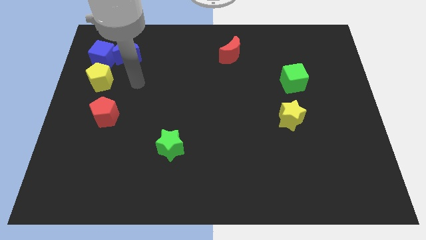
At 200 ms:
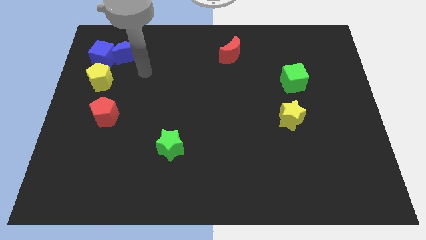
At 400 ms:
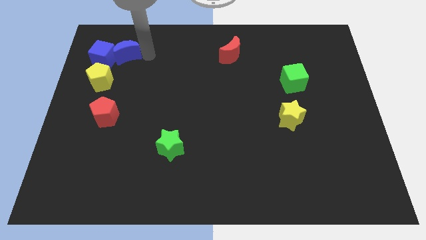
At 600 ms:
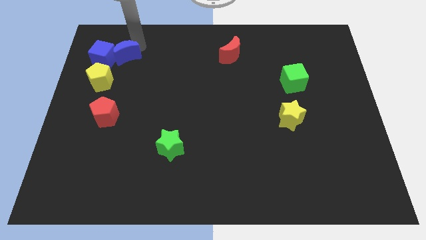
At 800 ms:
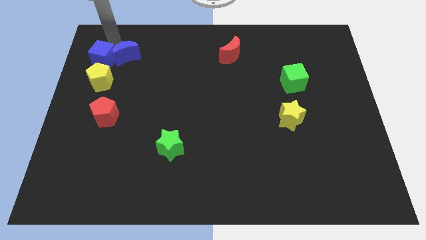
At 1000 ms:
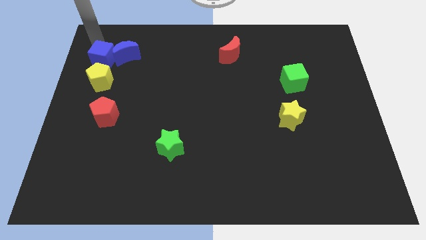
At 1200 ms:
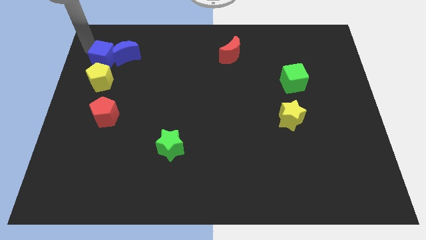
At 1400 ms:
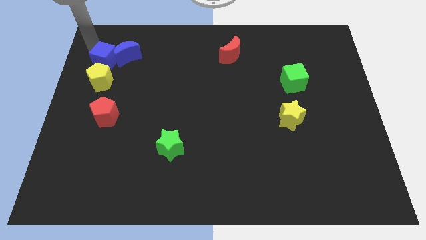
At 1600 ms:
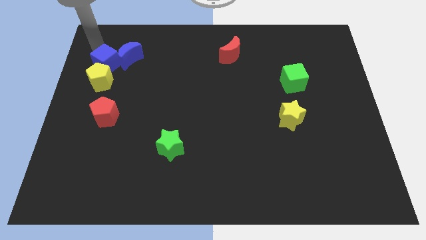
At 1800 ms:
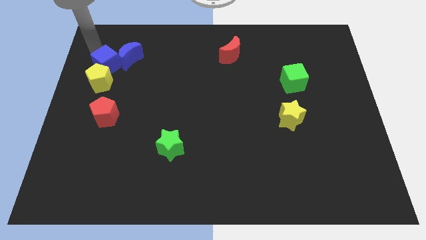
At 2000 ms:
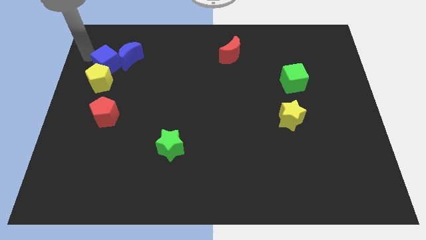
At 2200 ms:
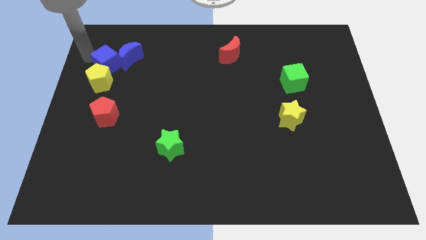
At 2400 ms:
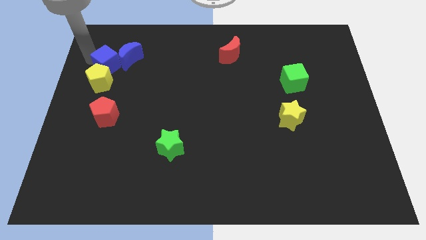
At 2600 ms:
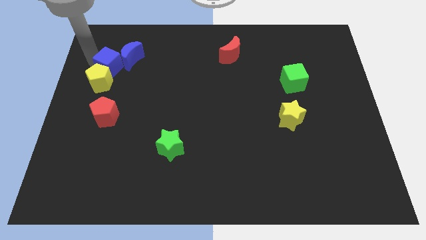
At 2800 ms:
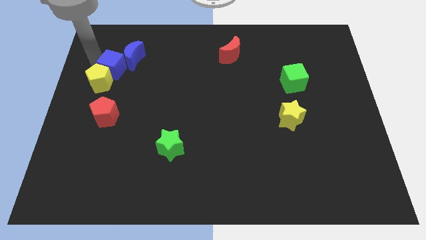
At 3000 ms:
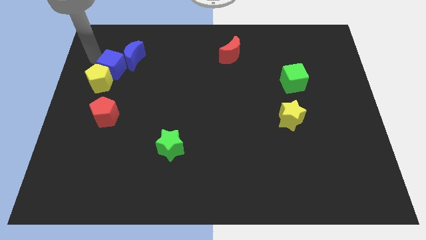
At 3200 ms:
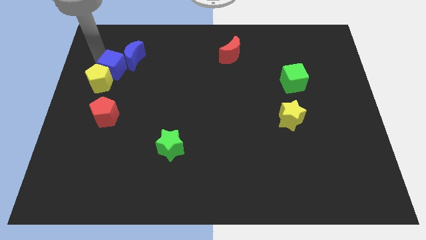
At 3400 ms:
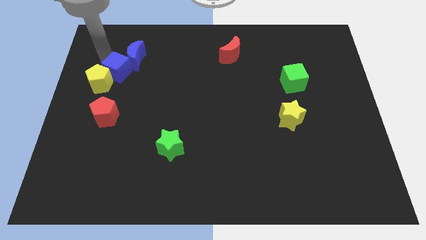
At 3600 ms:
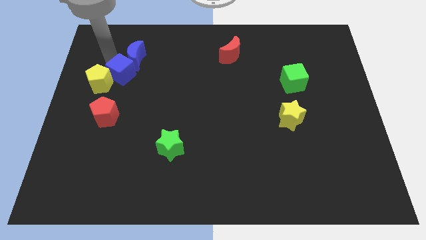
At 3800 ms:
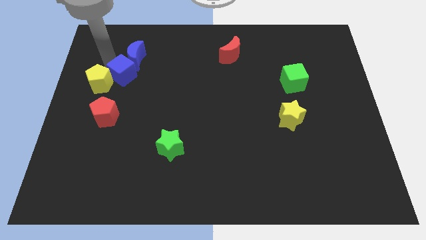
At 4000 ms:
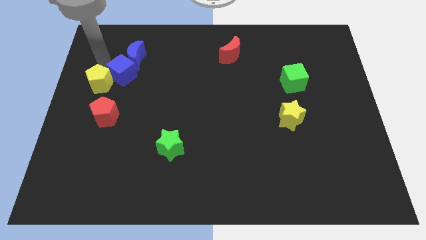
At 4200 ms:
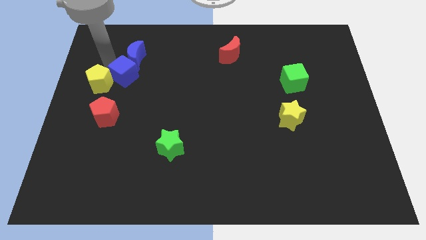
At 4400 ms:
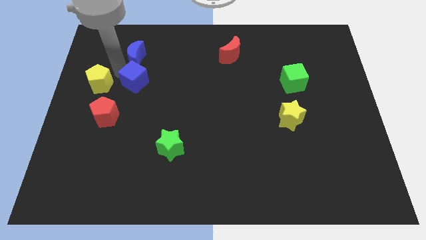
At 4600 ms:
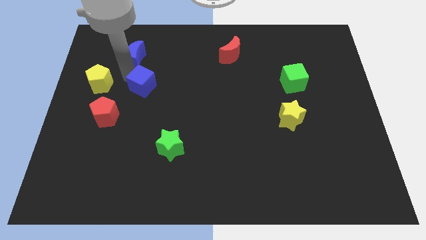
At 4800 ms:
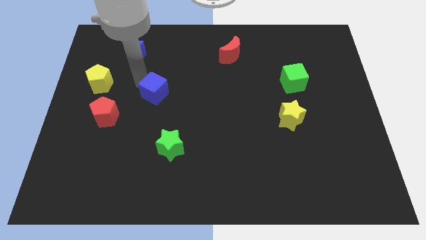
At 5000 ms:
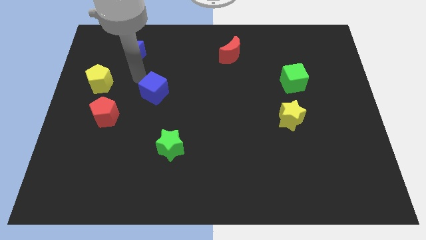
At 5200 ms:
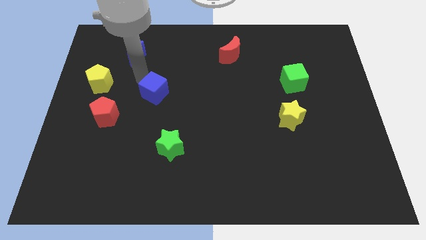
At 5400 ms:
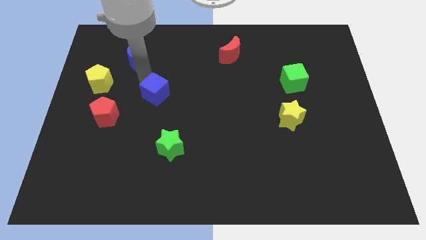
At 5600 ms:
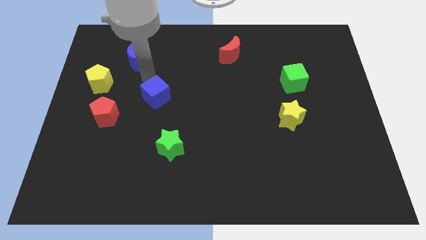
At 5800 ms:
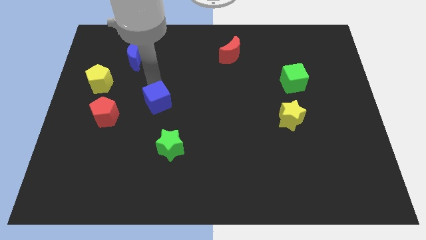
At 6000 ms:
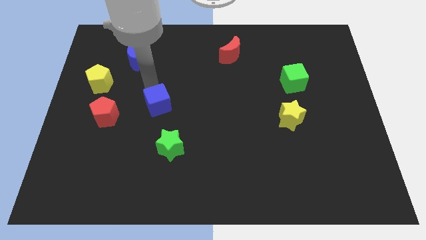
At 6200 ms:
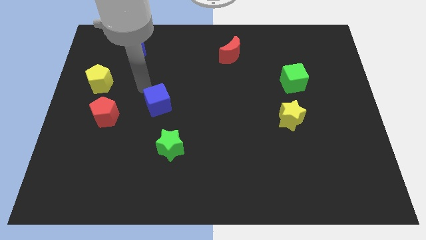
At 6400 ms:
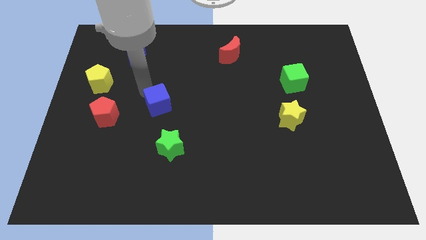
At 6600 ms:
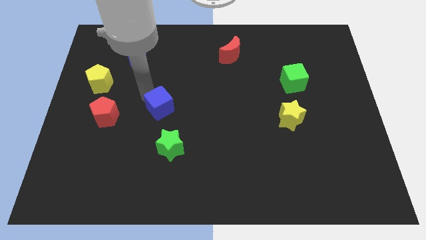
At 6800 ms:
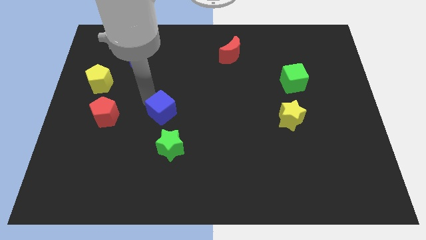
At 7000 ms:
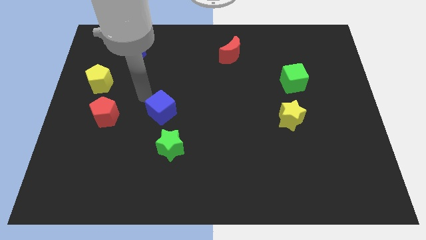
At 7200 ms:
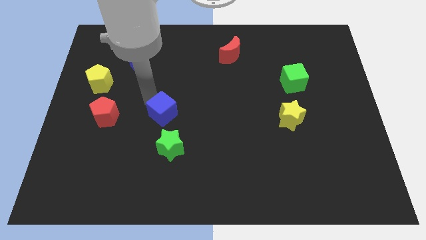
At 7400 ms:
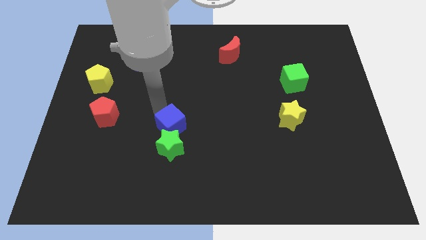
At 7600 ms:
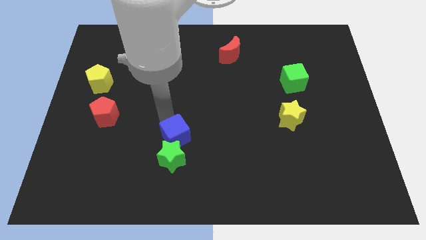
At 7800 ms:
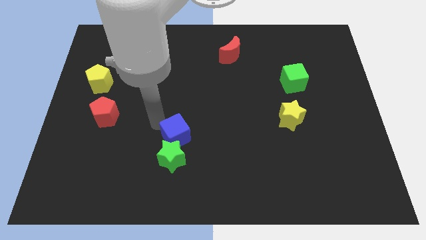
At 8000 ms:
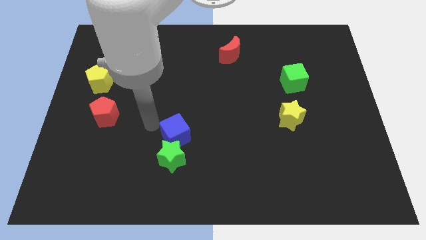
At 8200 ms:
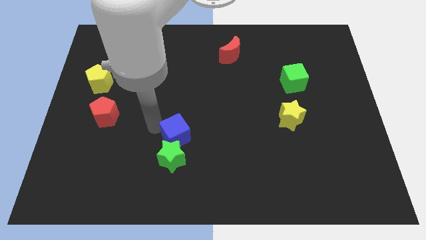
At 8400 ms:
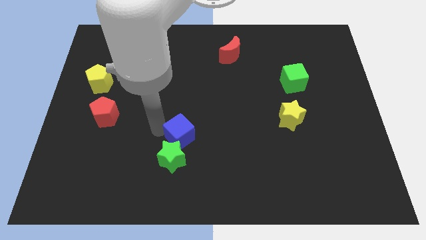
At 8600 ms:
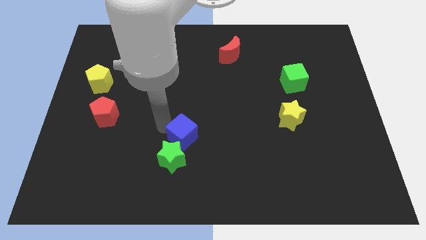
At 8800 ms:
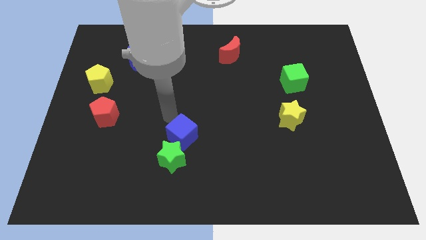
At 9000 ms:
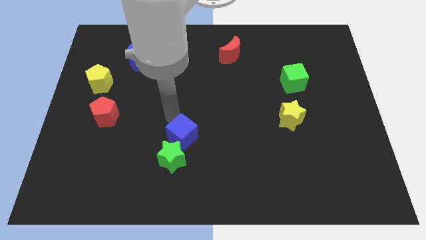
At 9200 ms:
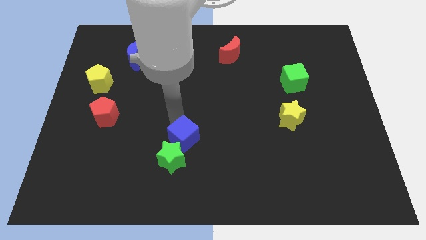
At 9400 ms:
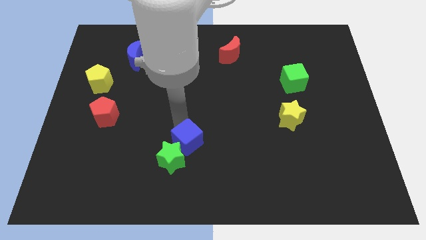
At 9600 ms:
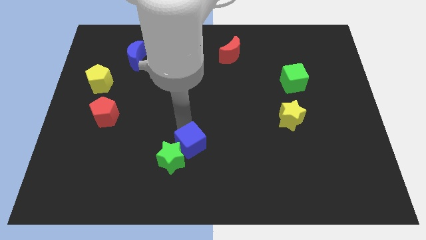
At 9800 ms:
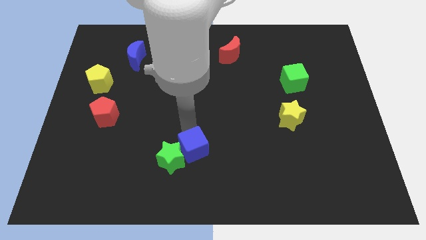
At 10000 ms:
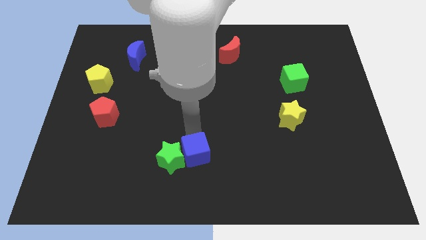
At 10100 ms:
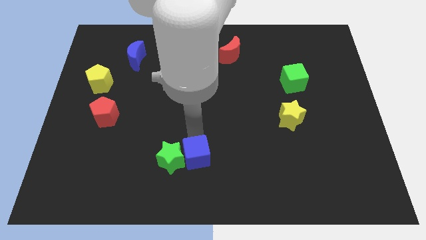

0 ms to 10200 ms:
move the blue cube to the bottom
